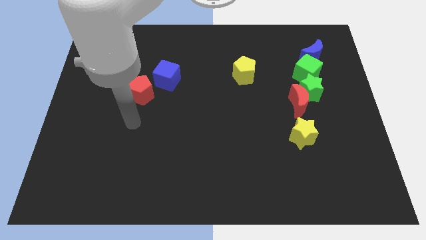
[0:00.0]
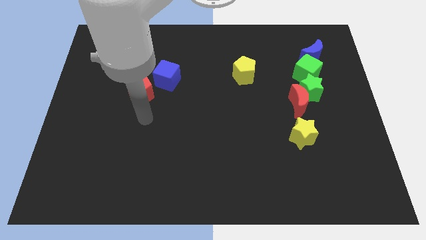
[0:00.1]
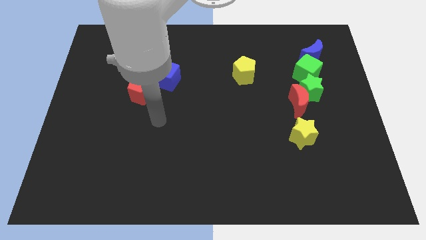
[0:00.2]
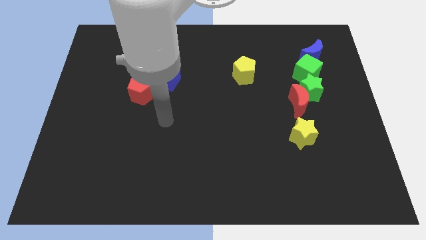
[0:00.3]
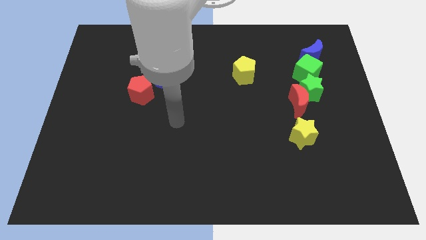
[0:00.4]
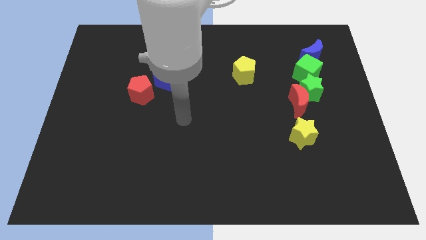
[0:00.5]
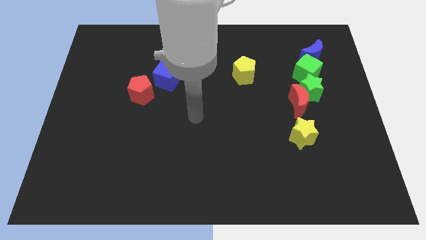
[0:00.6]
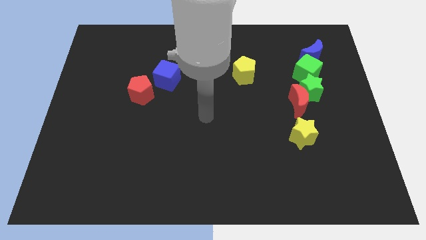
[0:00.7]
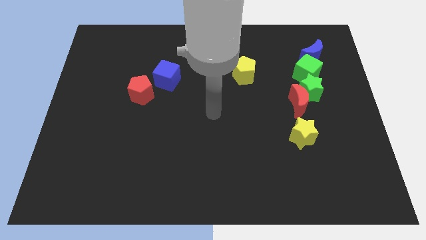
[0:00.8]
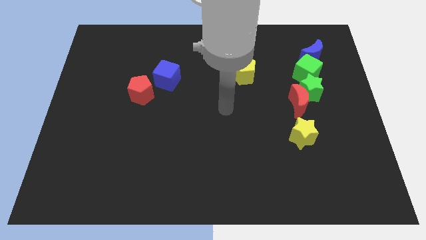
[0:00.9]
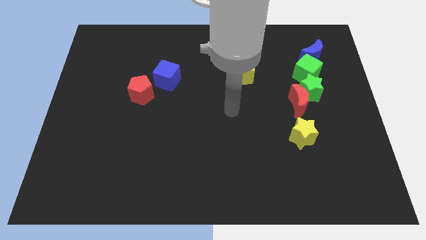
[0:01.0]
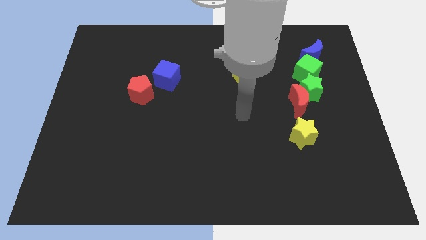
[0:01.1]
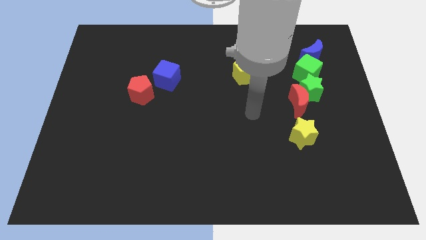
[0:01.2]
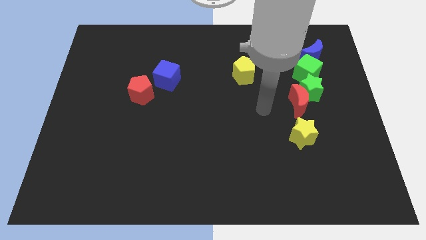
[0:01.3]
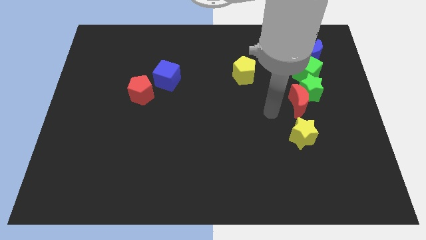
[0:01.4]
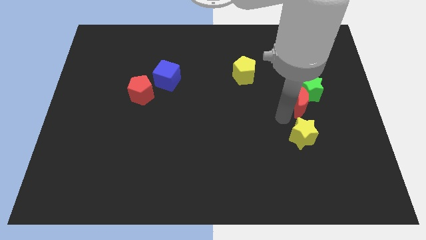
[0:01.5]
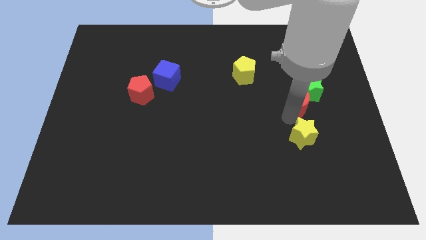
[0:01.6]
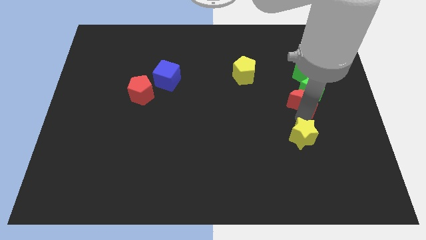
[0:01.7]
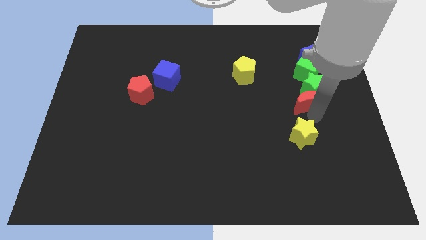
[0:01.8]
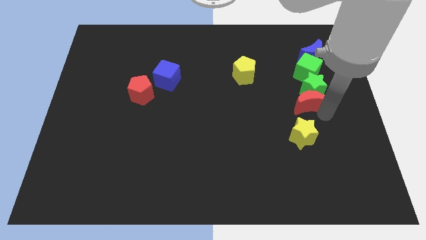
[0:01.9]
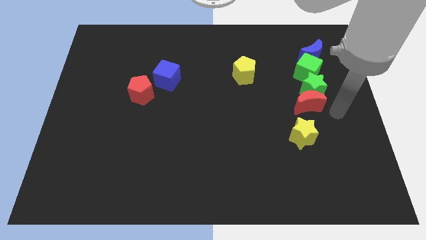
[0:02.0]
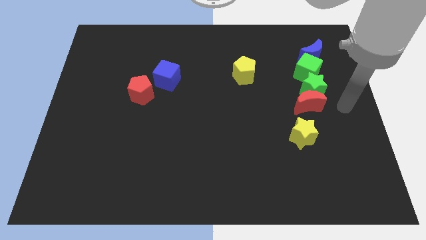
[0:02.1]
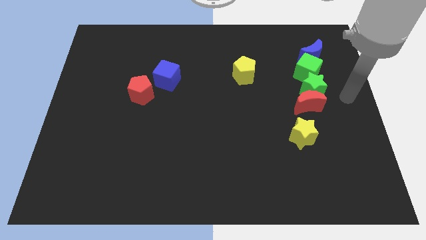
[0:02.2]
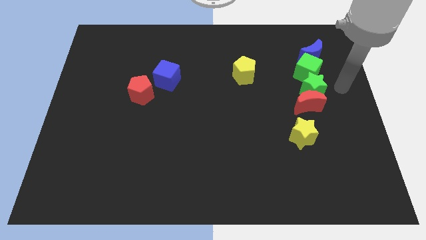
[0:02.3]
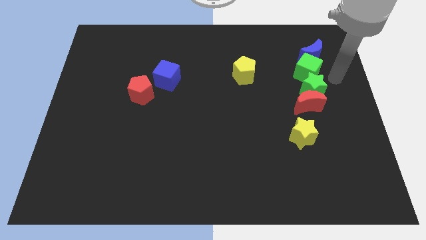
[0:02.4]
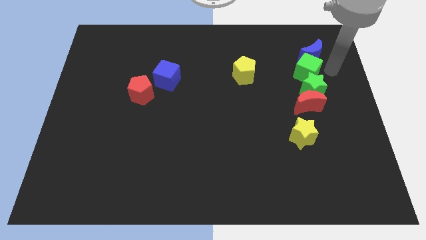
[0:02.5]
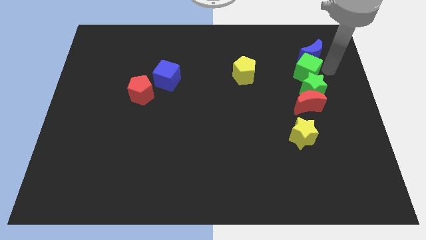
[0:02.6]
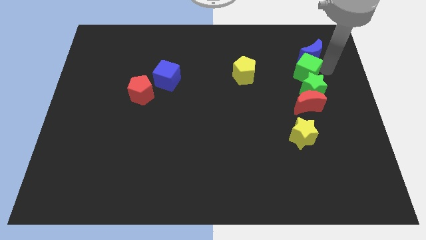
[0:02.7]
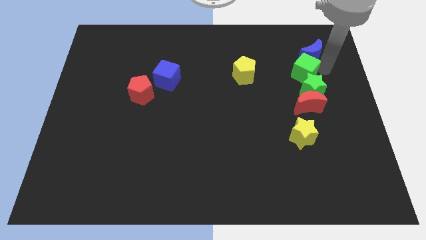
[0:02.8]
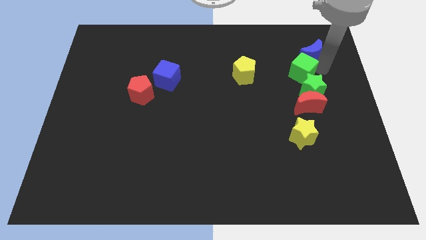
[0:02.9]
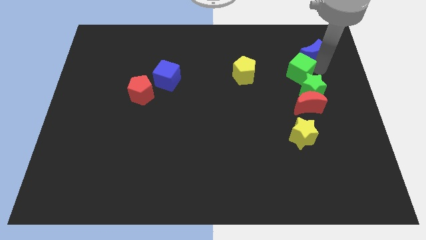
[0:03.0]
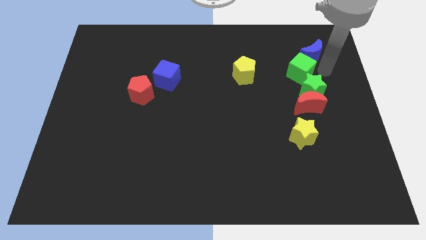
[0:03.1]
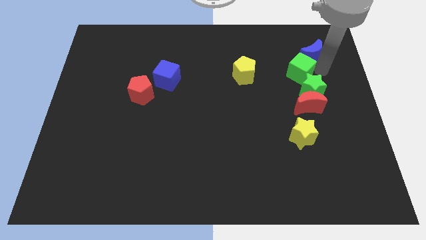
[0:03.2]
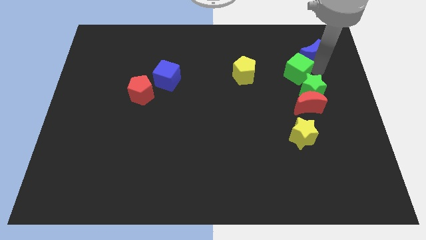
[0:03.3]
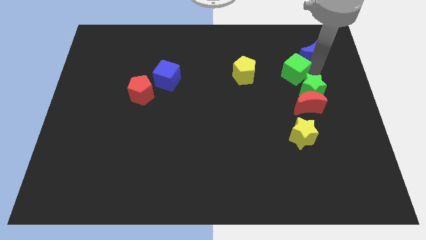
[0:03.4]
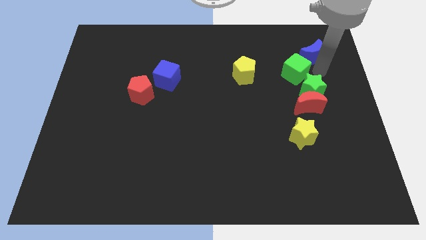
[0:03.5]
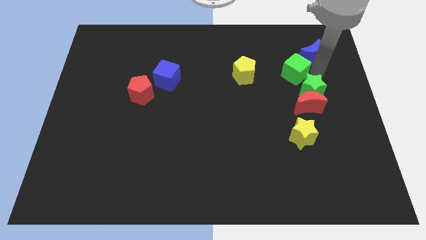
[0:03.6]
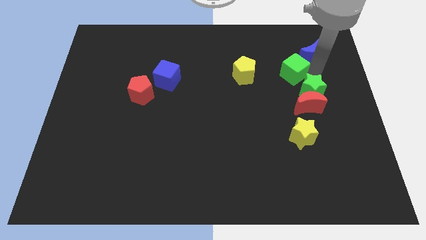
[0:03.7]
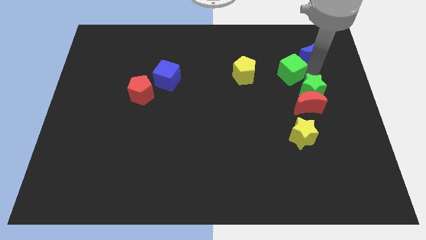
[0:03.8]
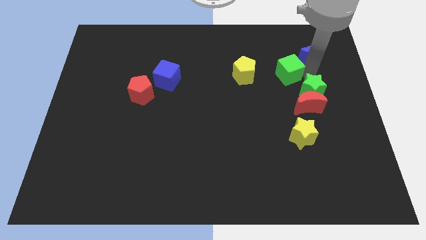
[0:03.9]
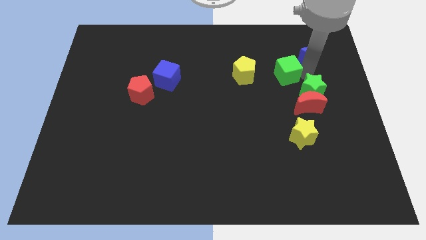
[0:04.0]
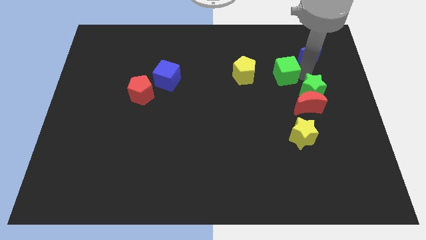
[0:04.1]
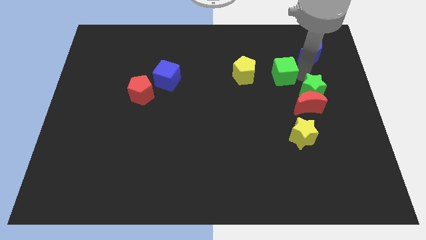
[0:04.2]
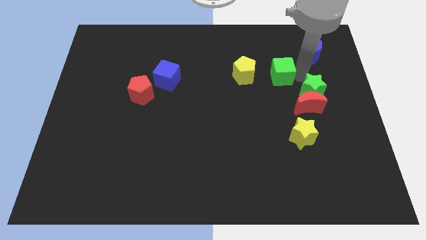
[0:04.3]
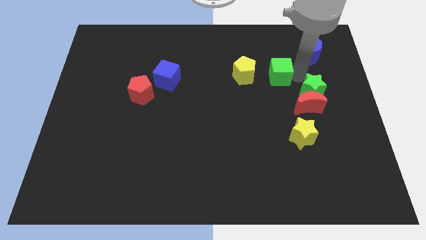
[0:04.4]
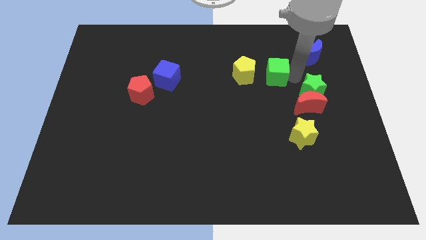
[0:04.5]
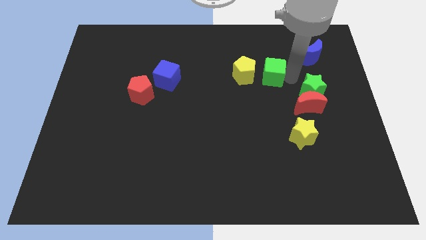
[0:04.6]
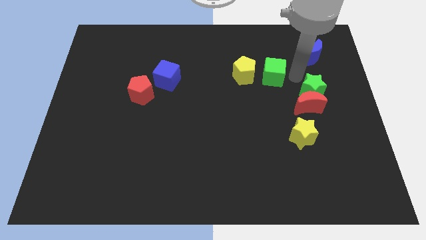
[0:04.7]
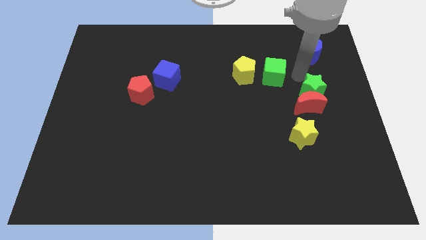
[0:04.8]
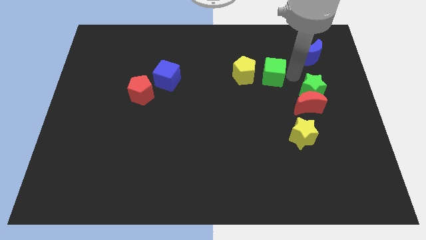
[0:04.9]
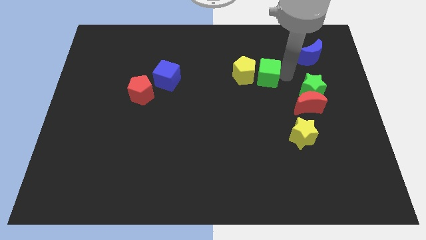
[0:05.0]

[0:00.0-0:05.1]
put the green cube next to the yellow pentagon
